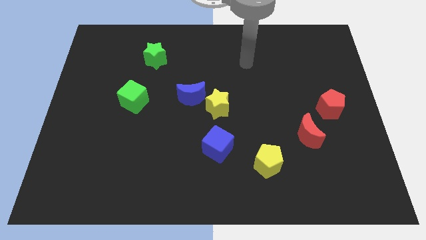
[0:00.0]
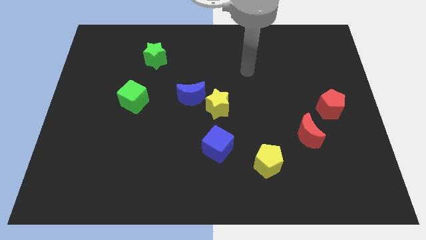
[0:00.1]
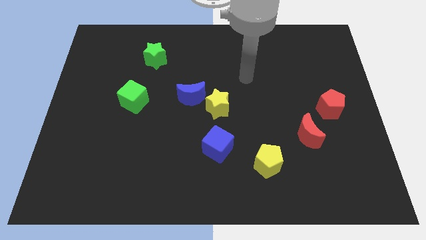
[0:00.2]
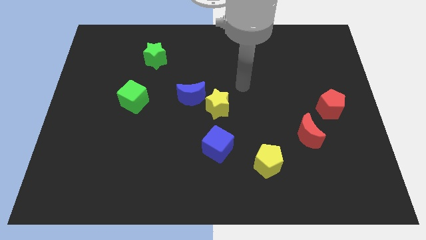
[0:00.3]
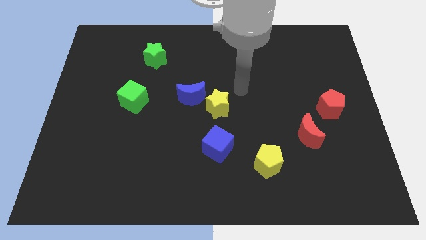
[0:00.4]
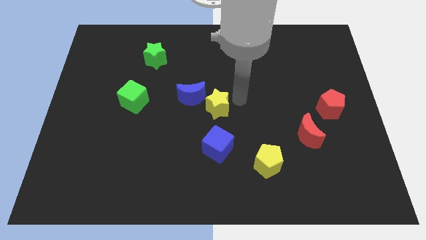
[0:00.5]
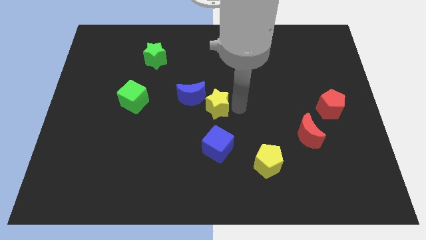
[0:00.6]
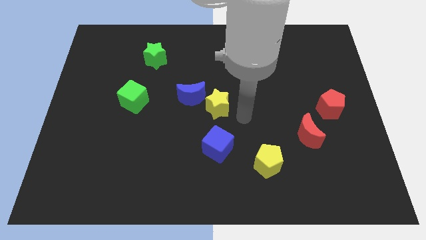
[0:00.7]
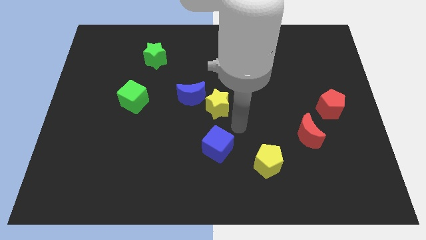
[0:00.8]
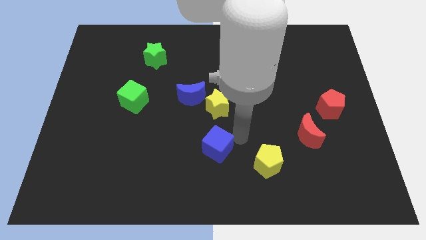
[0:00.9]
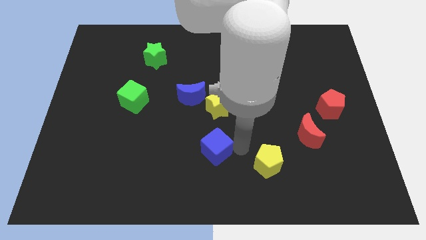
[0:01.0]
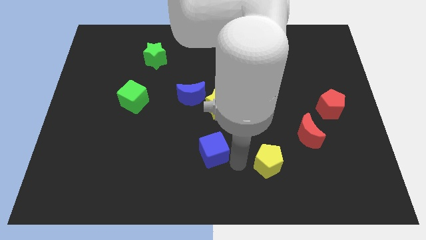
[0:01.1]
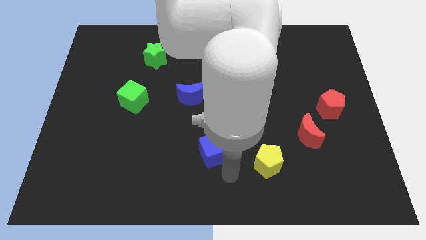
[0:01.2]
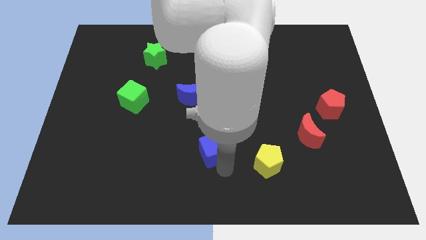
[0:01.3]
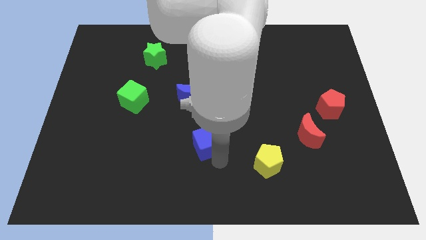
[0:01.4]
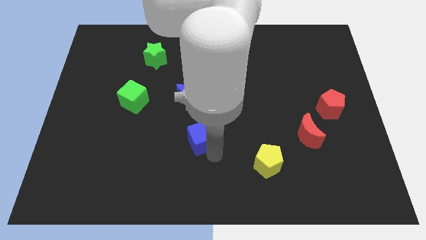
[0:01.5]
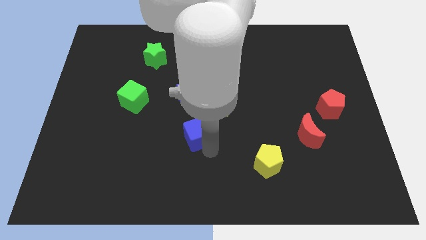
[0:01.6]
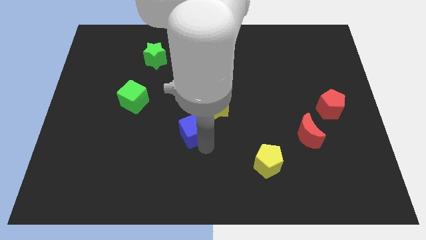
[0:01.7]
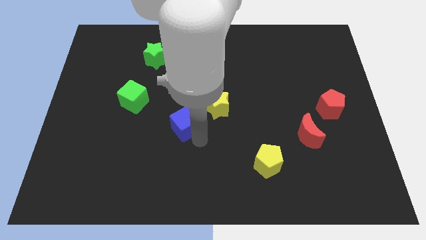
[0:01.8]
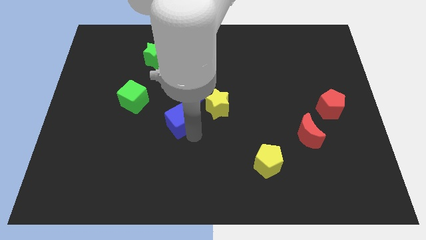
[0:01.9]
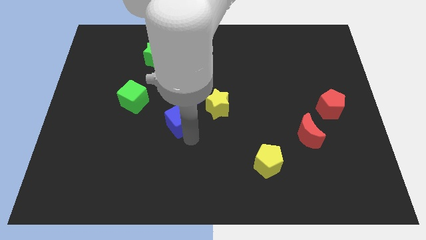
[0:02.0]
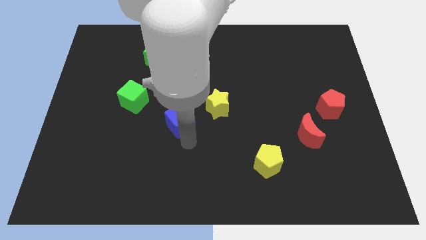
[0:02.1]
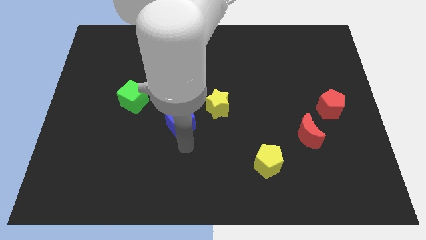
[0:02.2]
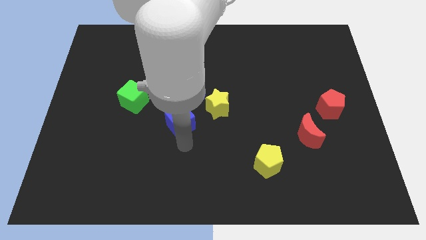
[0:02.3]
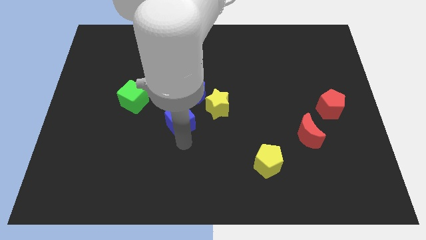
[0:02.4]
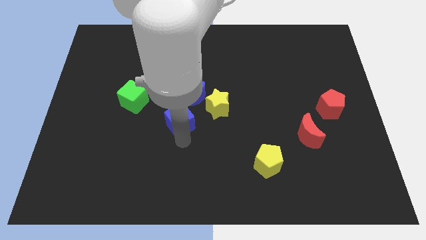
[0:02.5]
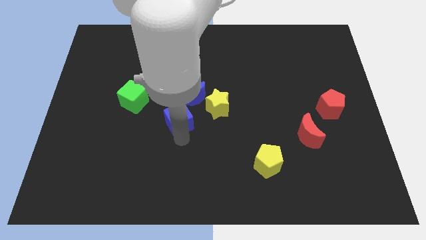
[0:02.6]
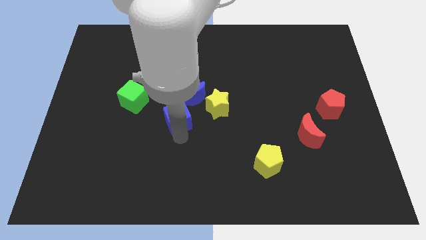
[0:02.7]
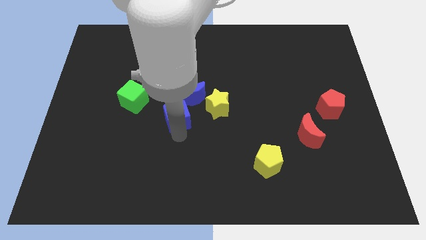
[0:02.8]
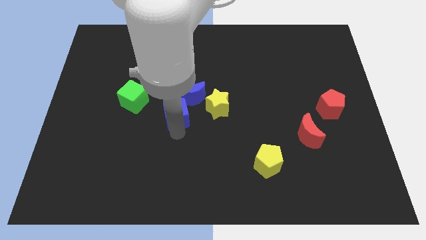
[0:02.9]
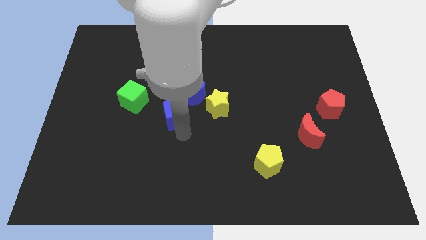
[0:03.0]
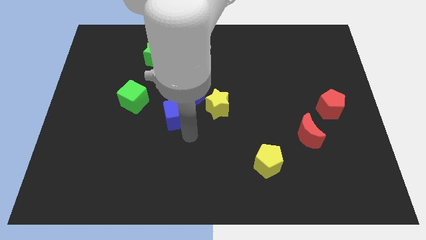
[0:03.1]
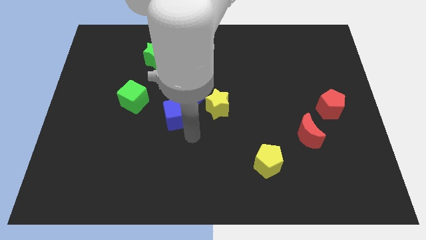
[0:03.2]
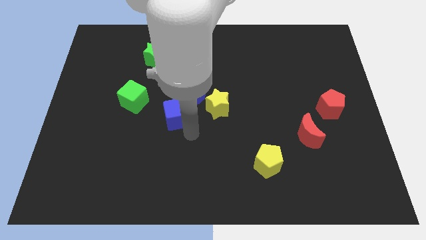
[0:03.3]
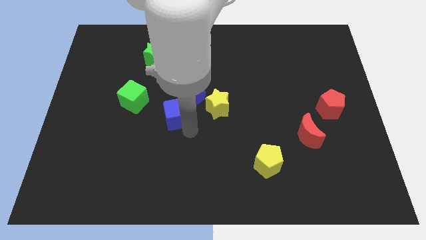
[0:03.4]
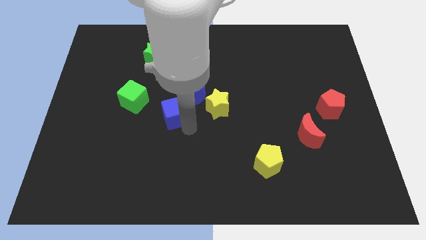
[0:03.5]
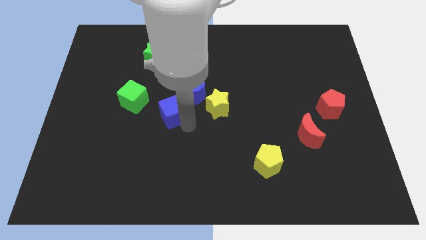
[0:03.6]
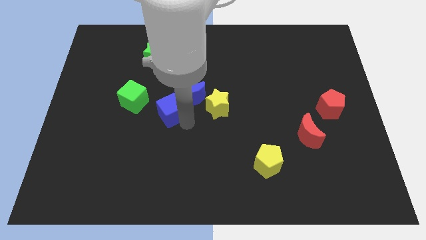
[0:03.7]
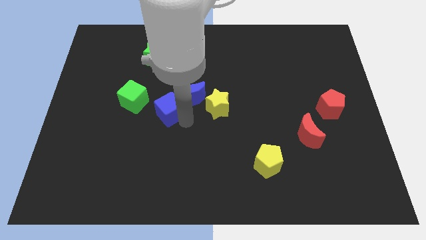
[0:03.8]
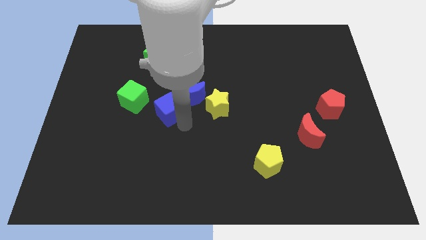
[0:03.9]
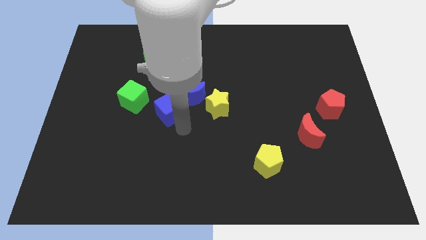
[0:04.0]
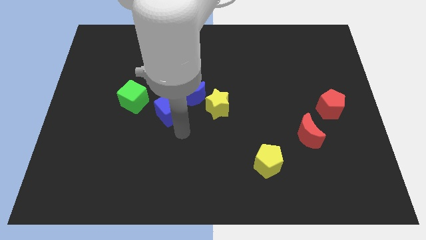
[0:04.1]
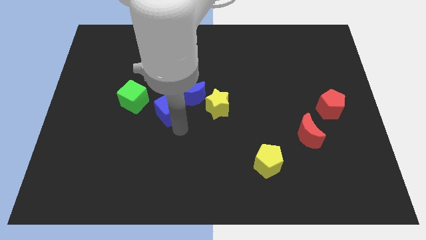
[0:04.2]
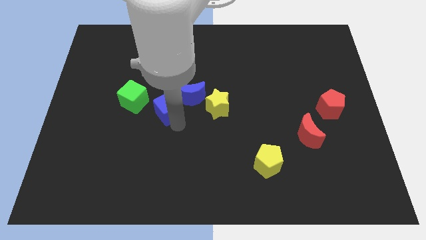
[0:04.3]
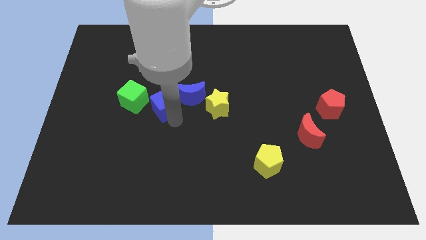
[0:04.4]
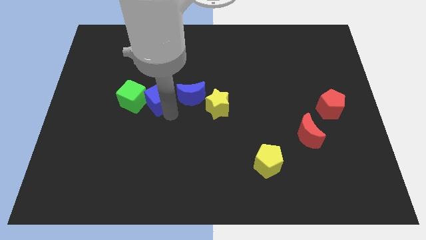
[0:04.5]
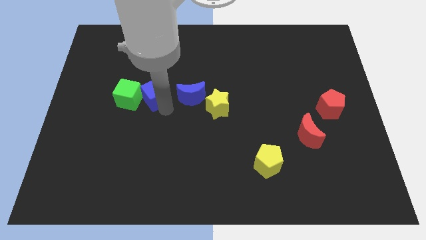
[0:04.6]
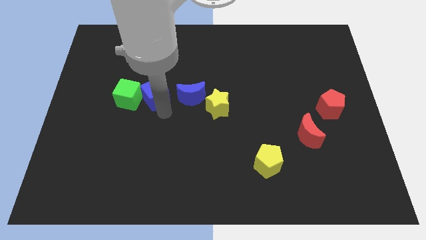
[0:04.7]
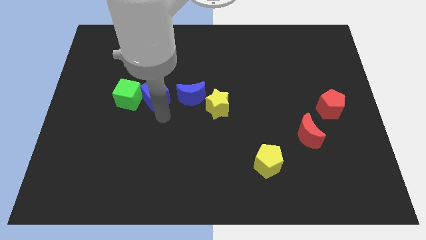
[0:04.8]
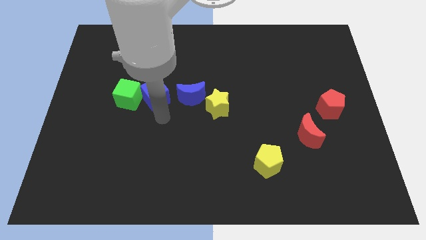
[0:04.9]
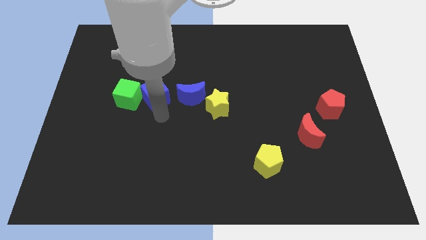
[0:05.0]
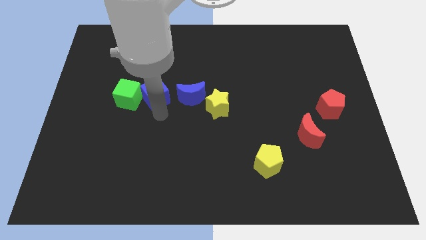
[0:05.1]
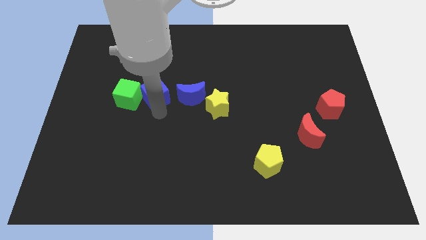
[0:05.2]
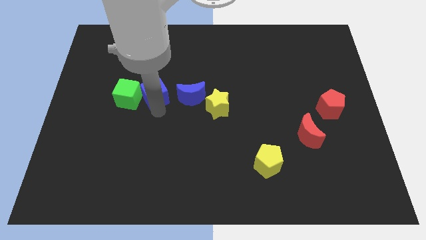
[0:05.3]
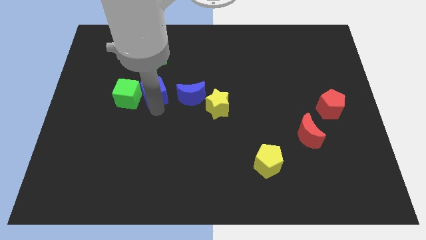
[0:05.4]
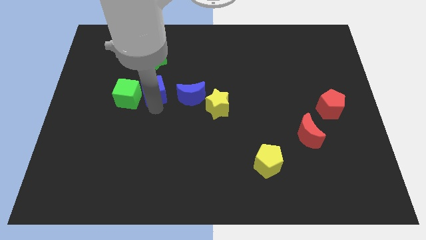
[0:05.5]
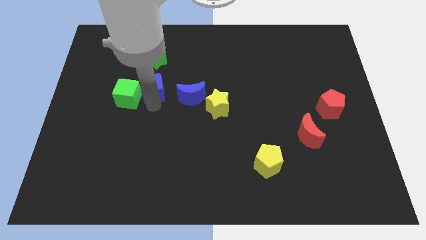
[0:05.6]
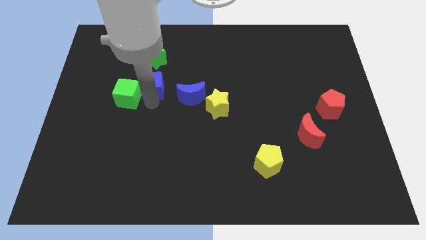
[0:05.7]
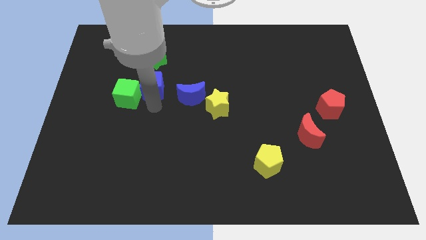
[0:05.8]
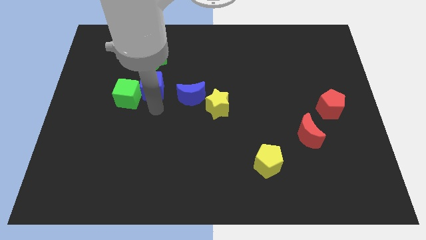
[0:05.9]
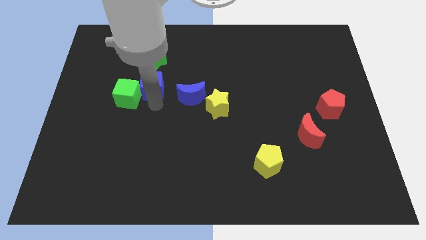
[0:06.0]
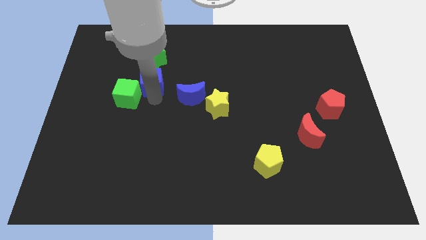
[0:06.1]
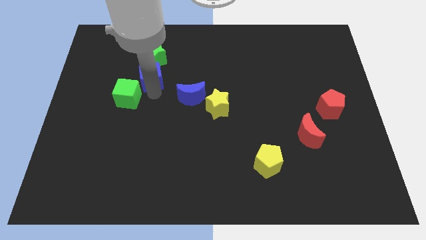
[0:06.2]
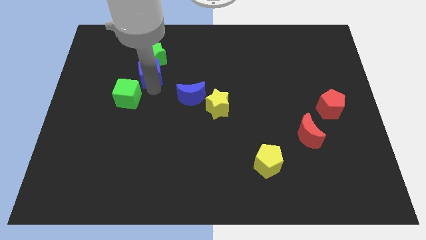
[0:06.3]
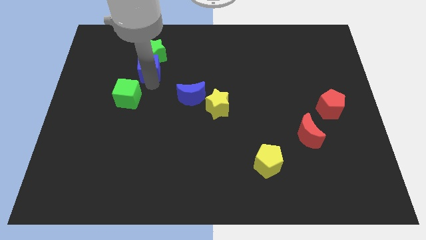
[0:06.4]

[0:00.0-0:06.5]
slide the blue cube close to the green star

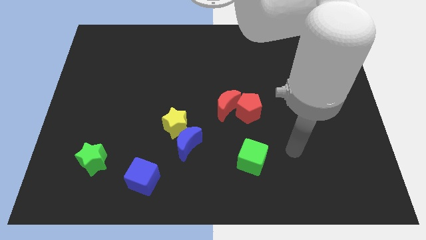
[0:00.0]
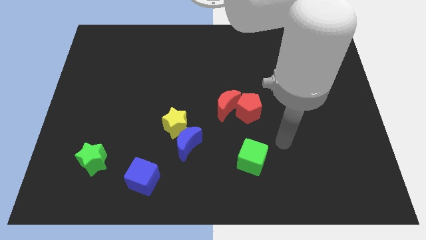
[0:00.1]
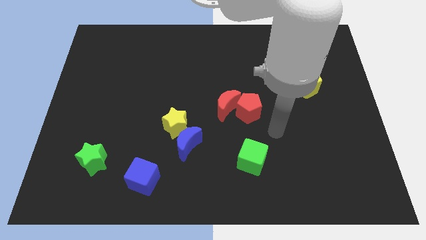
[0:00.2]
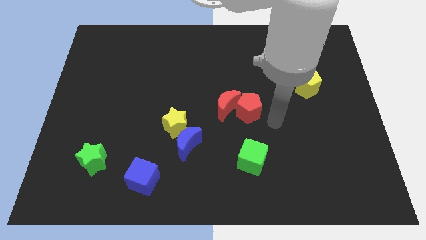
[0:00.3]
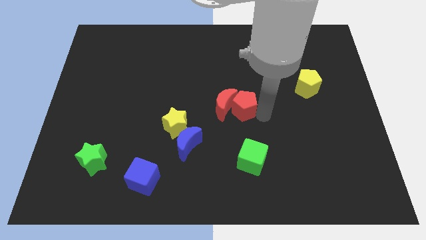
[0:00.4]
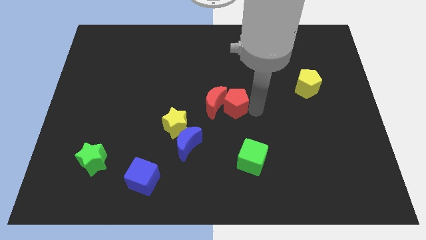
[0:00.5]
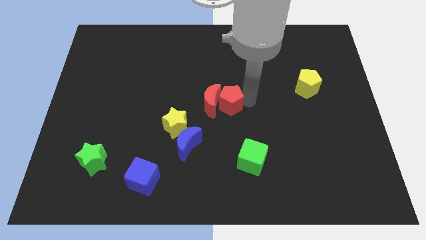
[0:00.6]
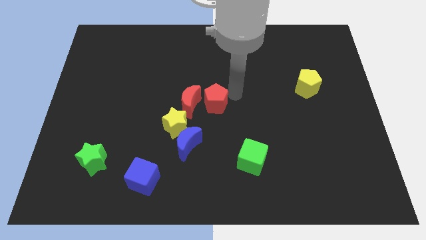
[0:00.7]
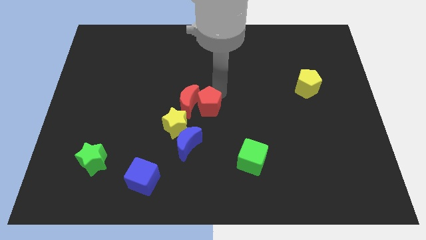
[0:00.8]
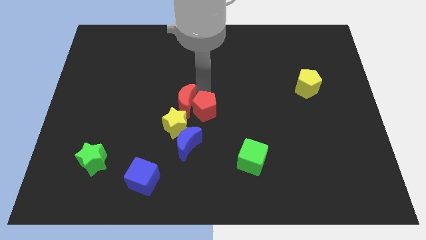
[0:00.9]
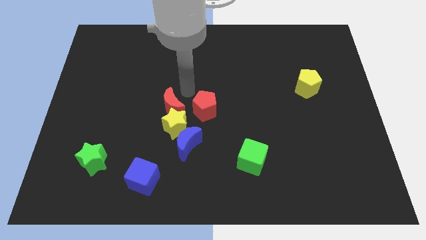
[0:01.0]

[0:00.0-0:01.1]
slide the red moon close to the yellow star
